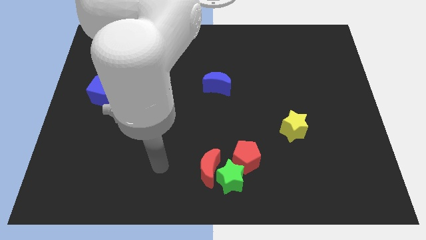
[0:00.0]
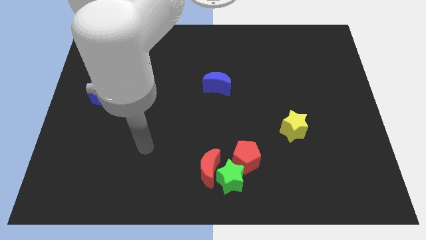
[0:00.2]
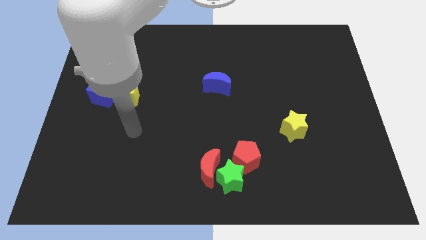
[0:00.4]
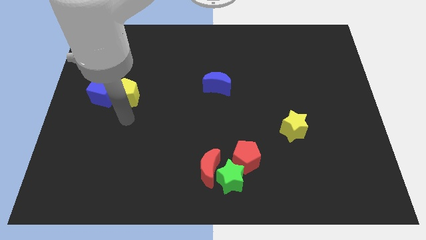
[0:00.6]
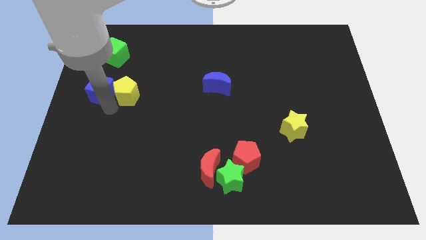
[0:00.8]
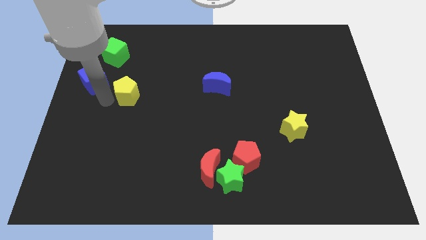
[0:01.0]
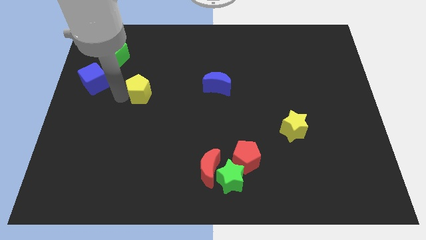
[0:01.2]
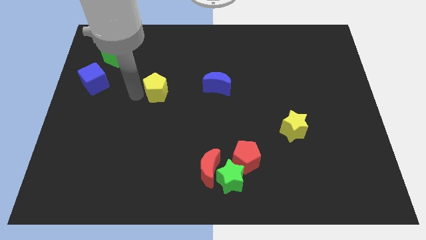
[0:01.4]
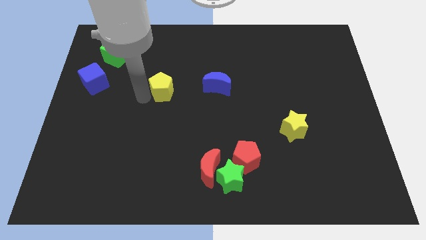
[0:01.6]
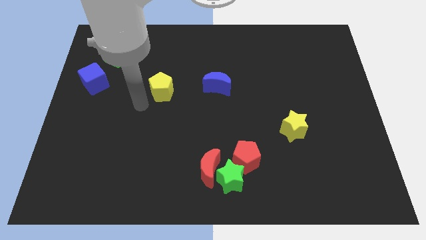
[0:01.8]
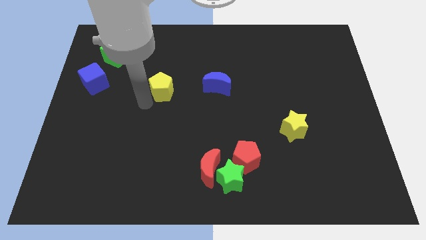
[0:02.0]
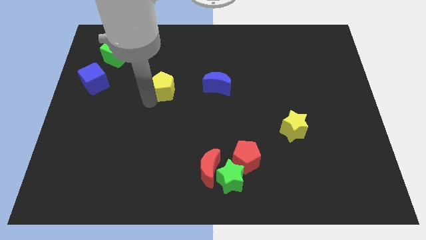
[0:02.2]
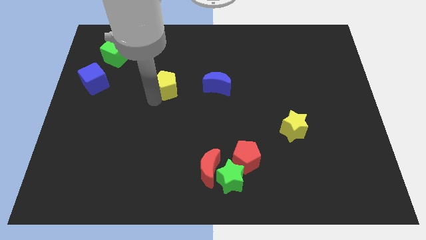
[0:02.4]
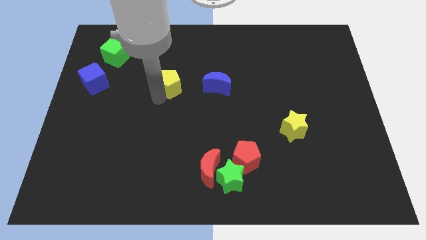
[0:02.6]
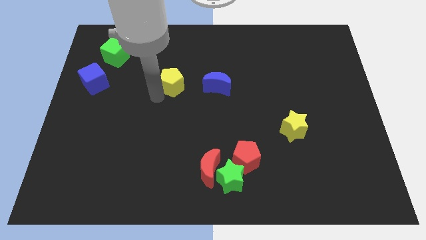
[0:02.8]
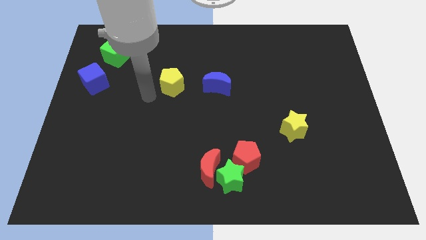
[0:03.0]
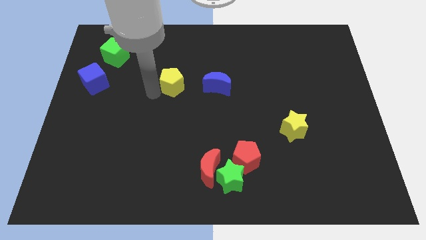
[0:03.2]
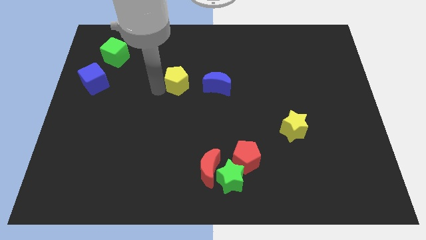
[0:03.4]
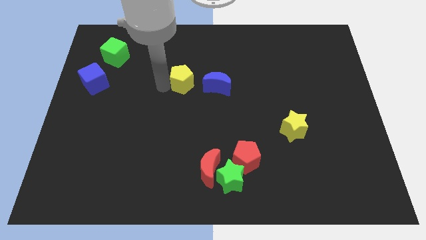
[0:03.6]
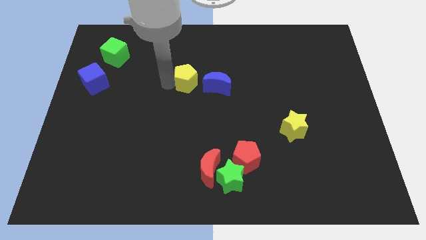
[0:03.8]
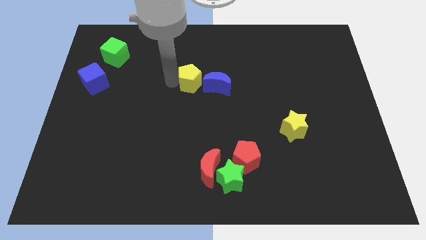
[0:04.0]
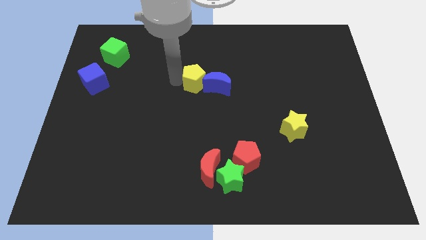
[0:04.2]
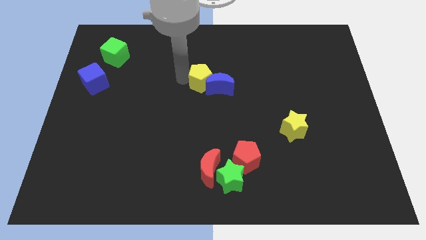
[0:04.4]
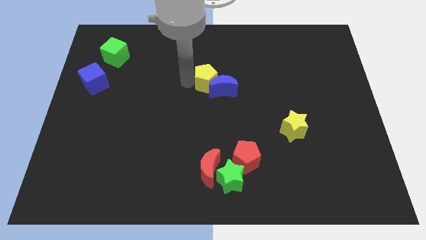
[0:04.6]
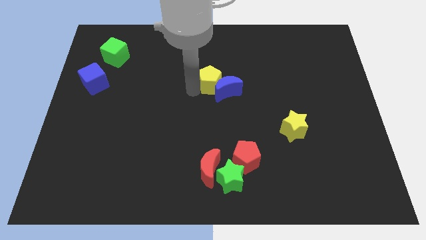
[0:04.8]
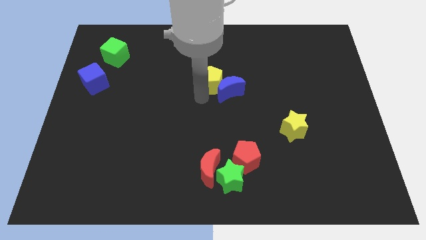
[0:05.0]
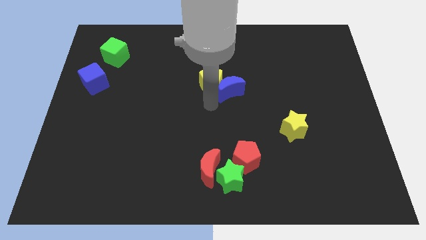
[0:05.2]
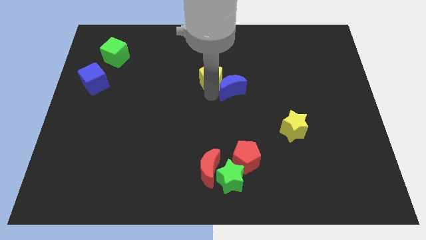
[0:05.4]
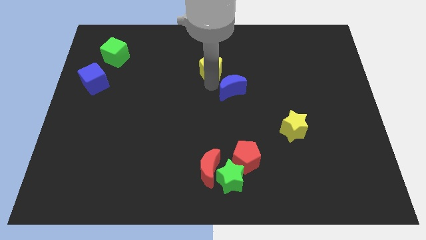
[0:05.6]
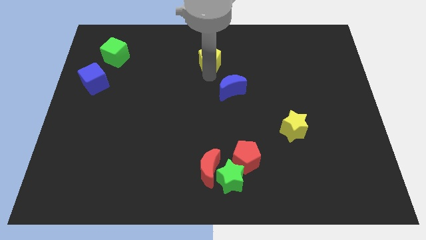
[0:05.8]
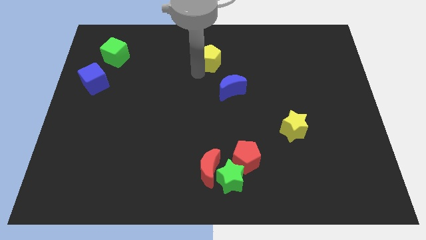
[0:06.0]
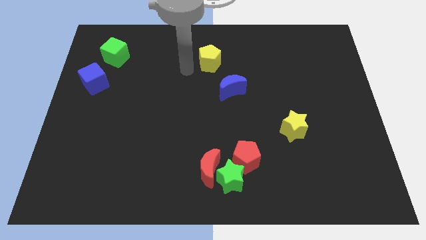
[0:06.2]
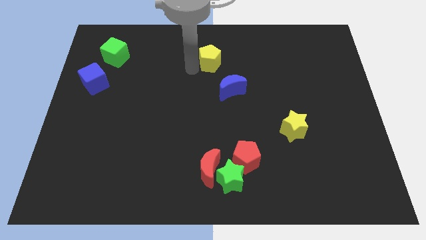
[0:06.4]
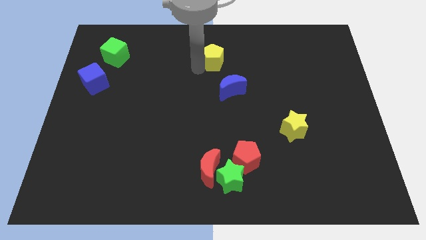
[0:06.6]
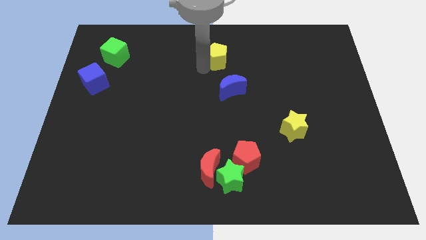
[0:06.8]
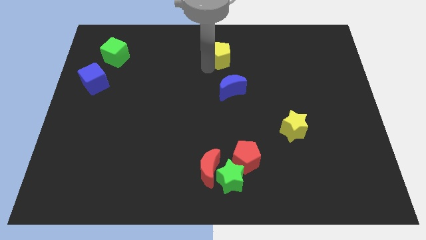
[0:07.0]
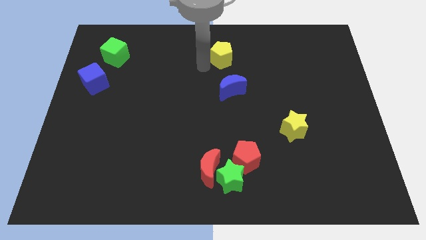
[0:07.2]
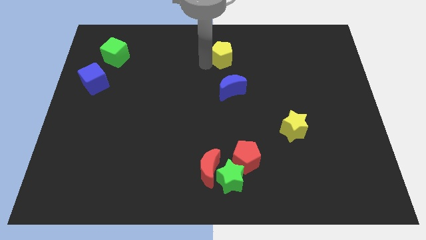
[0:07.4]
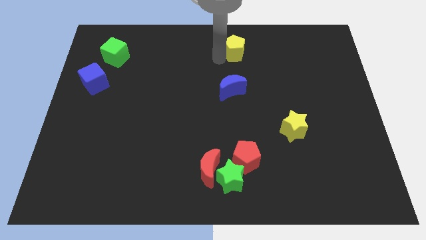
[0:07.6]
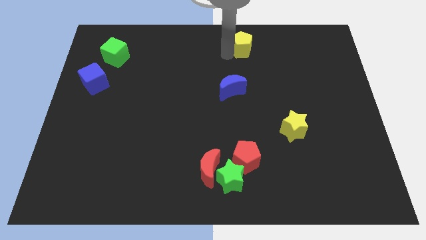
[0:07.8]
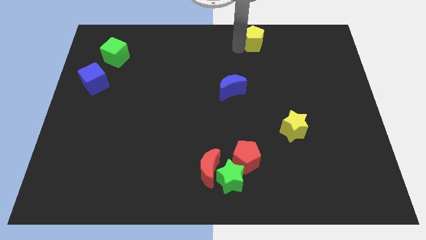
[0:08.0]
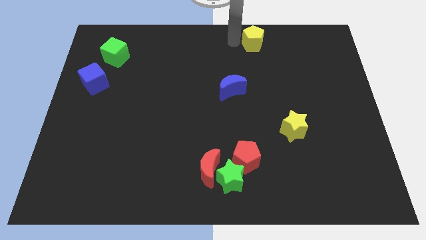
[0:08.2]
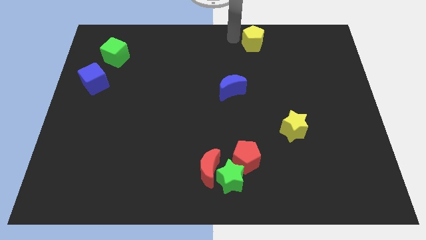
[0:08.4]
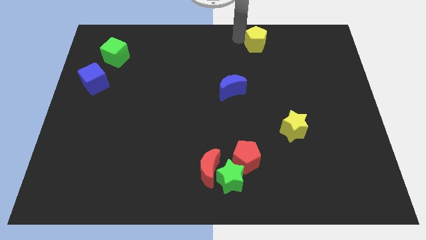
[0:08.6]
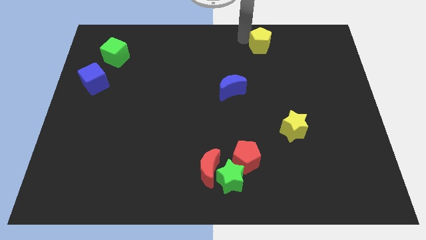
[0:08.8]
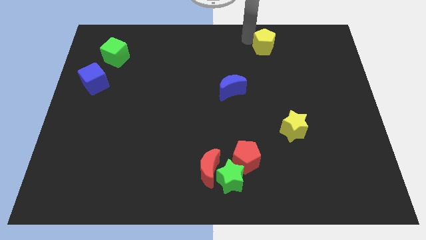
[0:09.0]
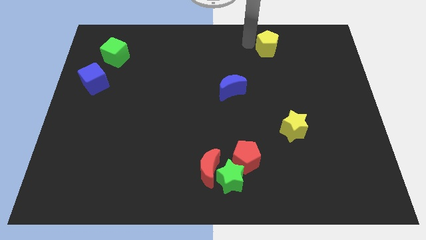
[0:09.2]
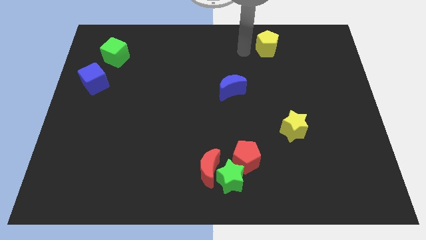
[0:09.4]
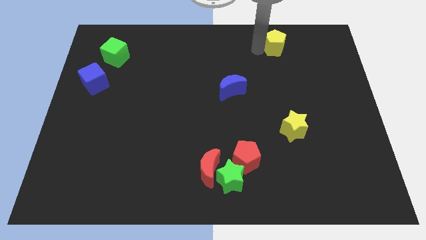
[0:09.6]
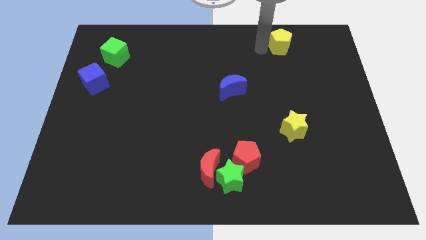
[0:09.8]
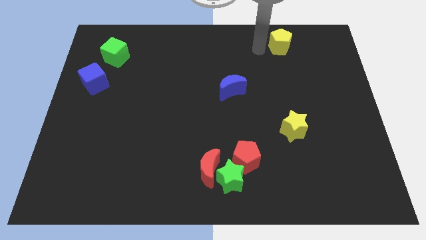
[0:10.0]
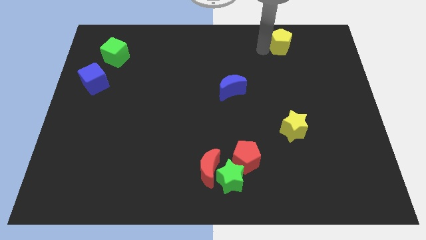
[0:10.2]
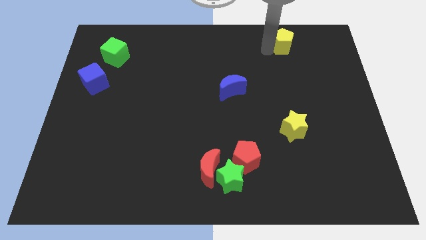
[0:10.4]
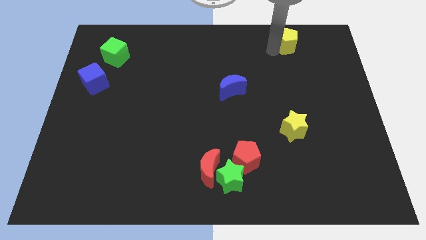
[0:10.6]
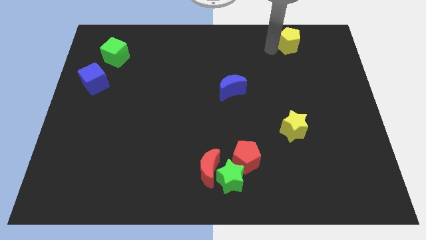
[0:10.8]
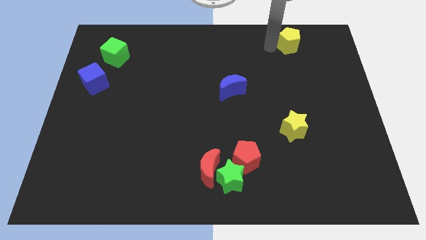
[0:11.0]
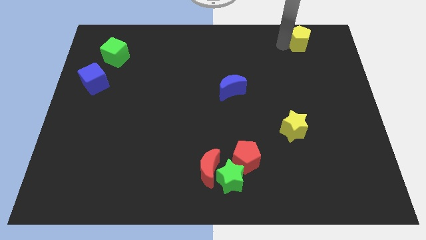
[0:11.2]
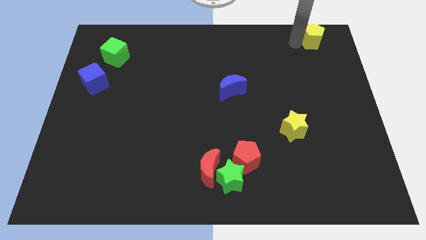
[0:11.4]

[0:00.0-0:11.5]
put the yellow pentagon to the top right corner

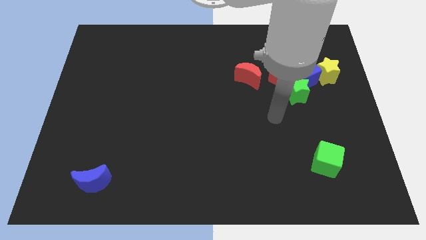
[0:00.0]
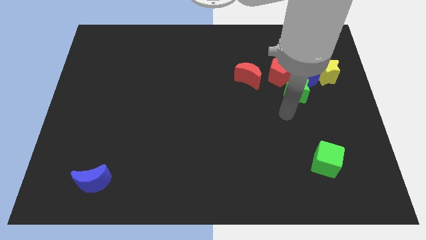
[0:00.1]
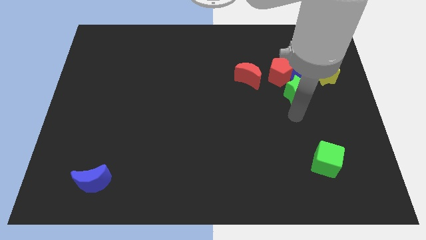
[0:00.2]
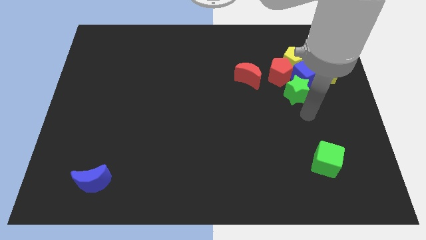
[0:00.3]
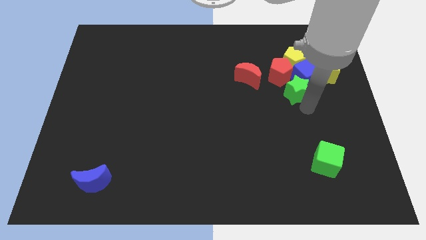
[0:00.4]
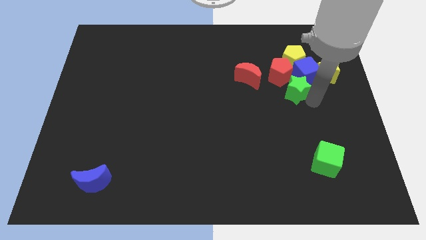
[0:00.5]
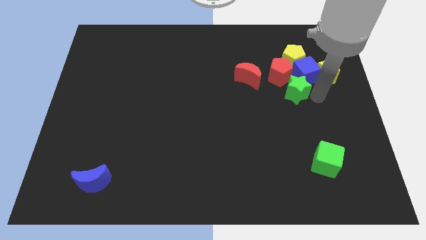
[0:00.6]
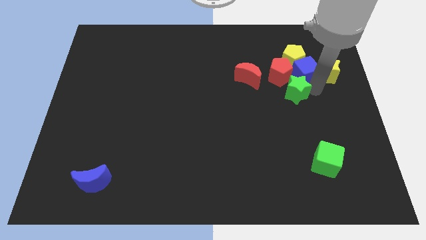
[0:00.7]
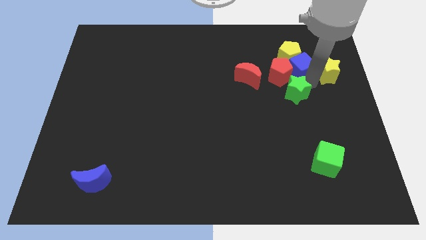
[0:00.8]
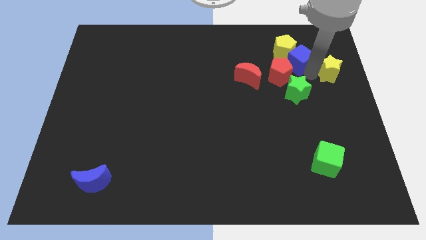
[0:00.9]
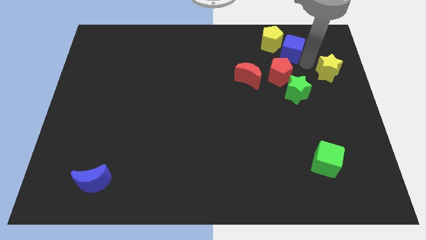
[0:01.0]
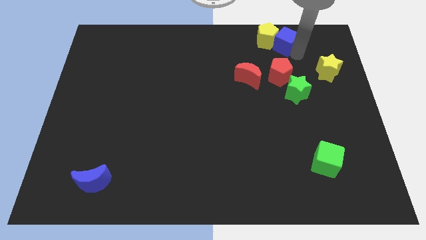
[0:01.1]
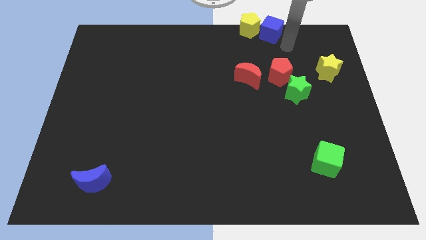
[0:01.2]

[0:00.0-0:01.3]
put the yellow pentagon to the towards your base
